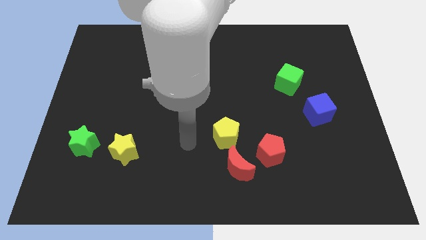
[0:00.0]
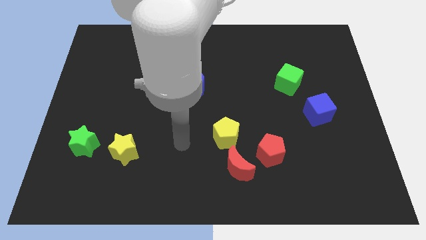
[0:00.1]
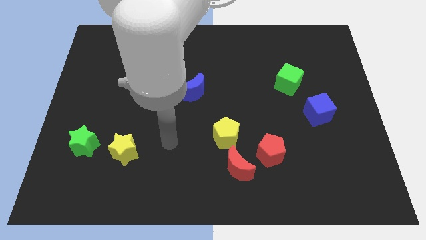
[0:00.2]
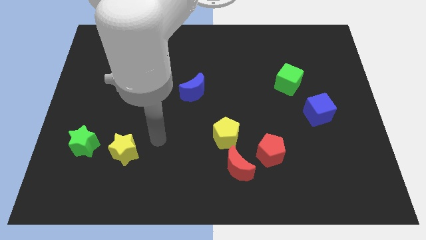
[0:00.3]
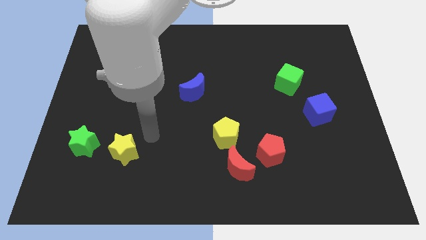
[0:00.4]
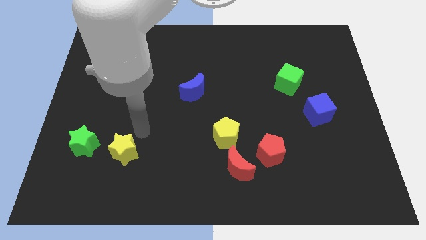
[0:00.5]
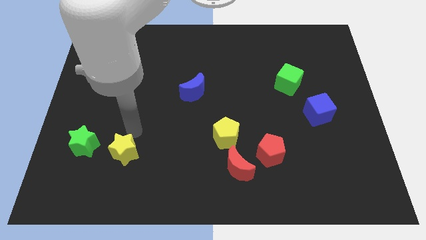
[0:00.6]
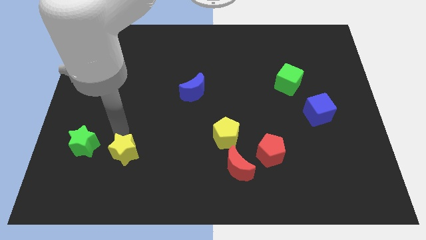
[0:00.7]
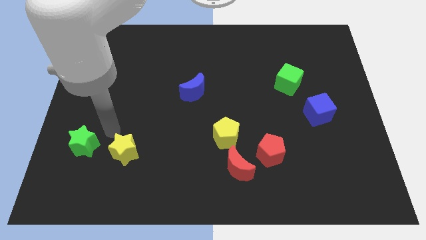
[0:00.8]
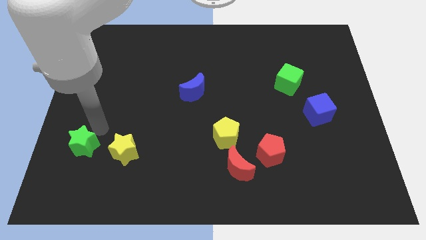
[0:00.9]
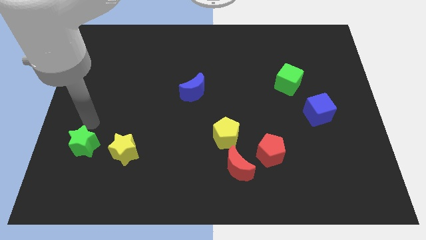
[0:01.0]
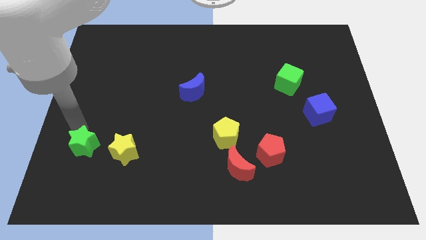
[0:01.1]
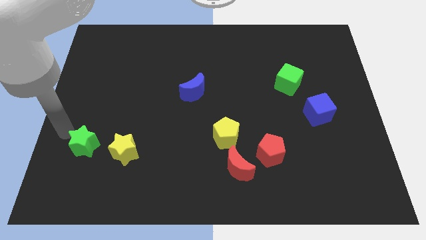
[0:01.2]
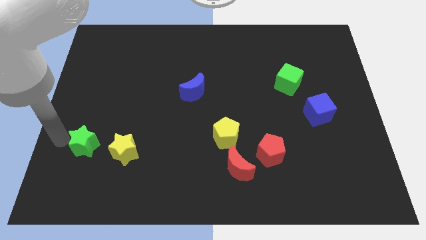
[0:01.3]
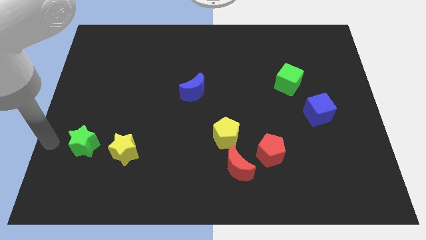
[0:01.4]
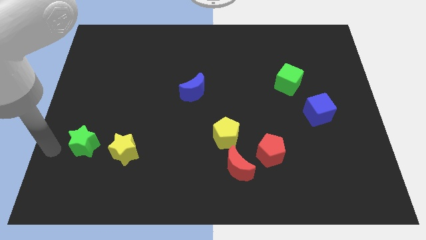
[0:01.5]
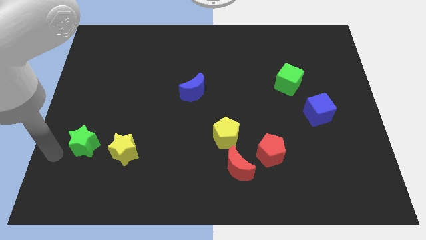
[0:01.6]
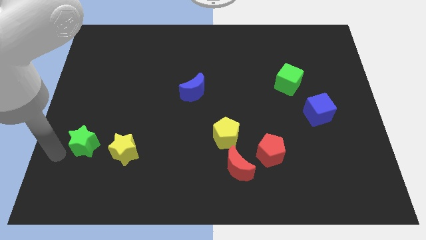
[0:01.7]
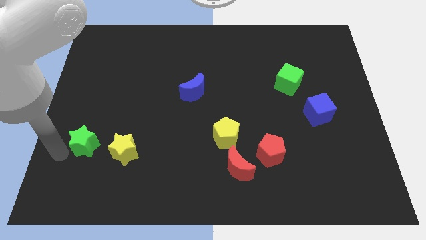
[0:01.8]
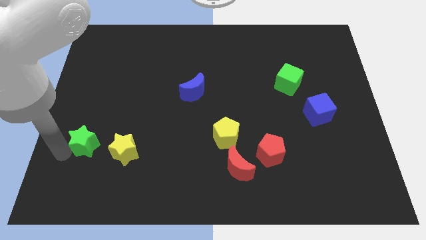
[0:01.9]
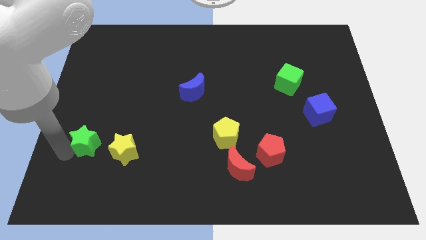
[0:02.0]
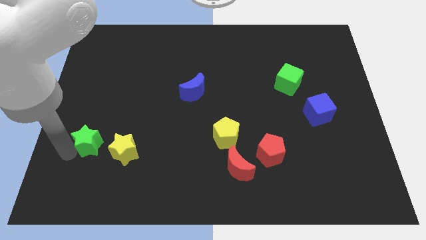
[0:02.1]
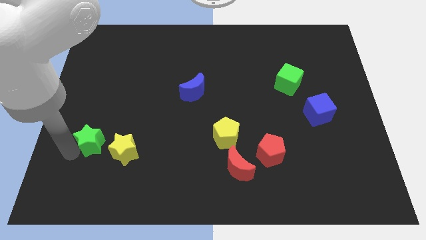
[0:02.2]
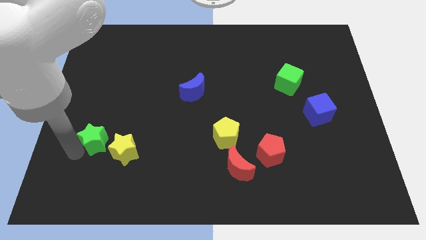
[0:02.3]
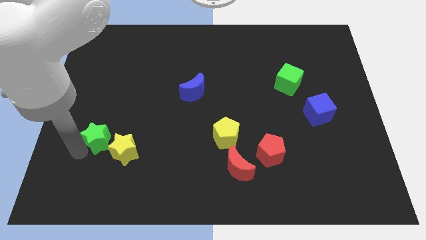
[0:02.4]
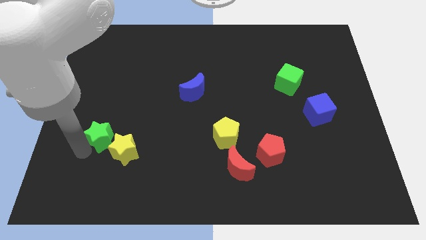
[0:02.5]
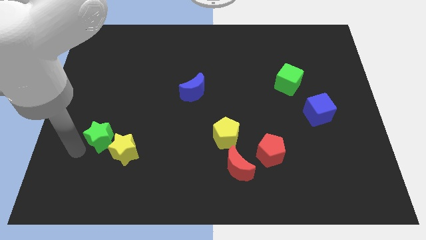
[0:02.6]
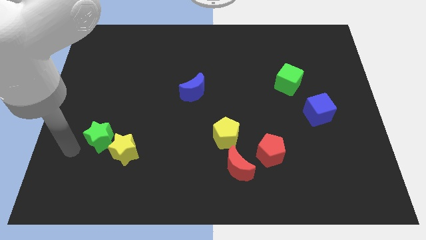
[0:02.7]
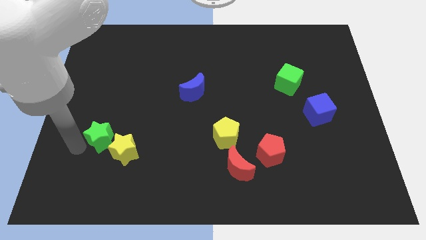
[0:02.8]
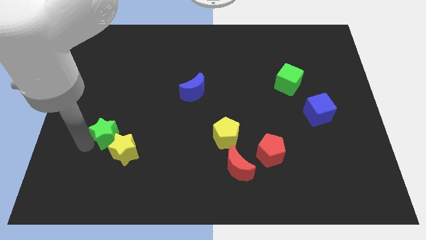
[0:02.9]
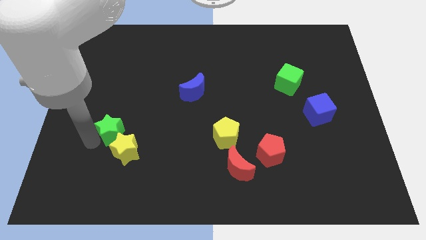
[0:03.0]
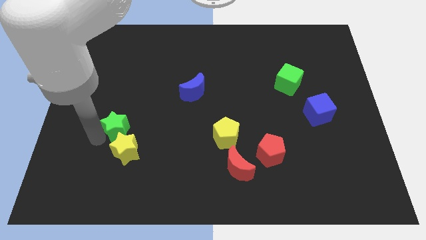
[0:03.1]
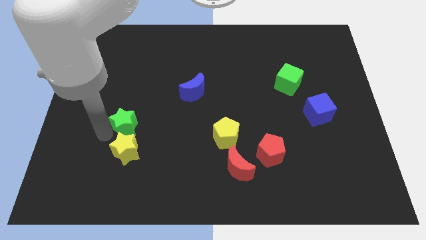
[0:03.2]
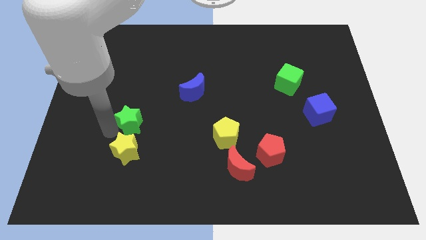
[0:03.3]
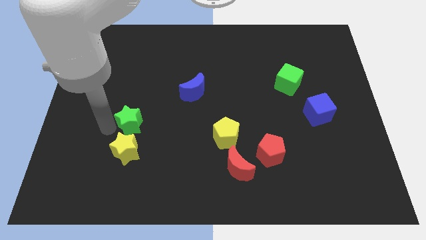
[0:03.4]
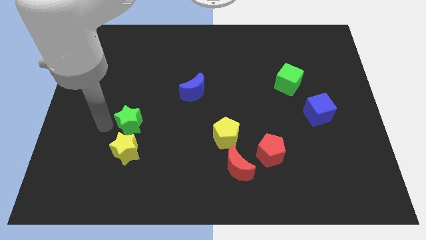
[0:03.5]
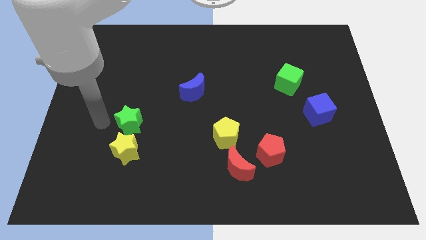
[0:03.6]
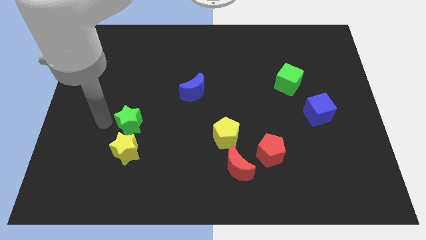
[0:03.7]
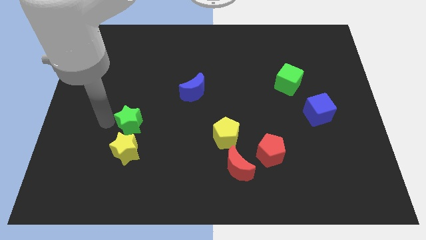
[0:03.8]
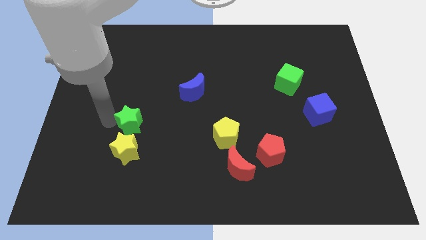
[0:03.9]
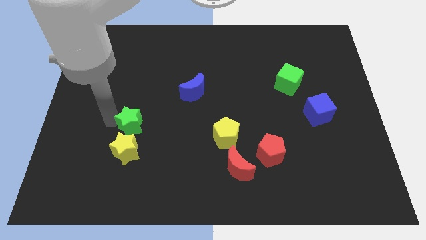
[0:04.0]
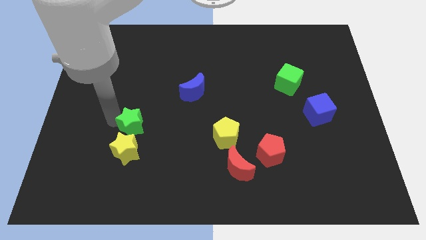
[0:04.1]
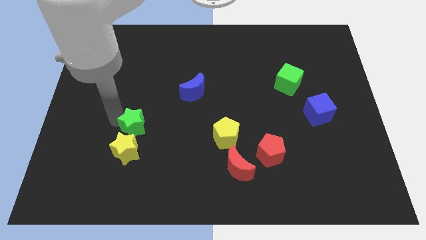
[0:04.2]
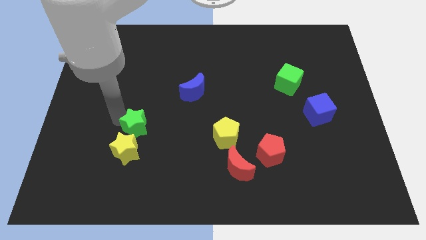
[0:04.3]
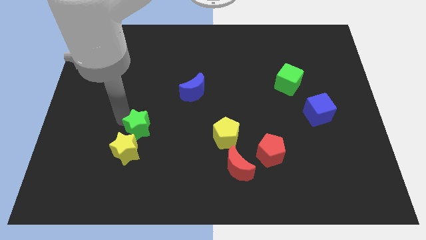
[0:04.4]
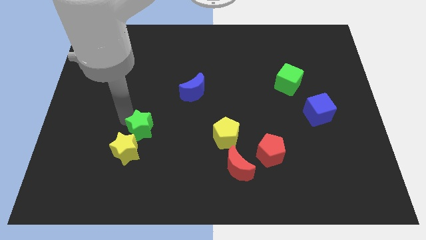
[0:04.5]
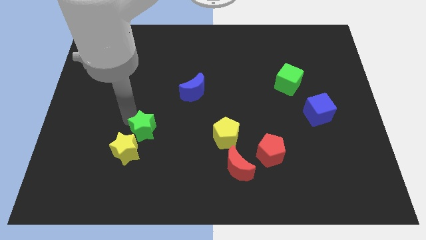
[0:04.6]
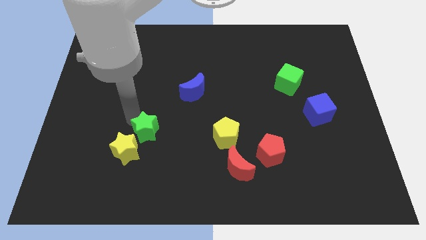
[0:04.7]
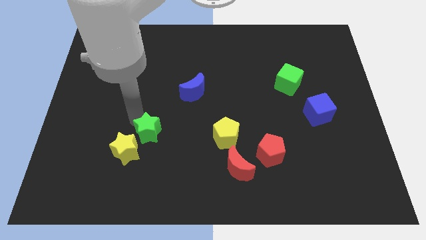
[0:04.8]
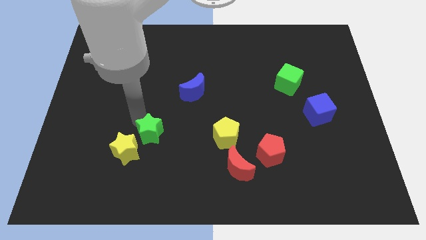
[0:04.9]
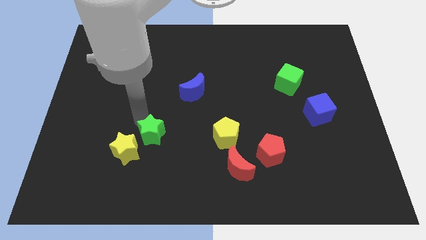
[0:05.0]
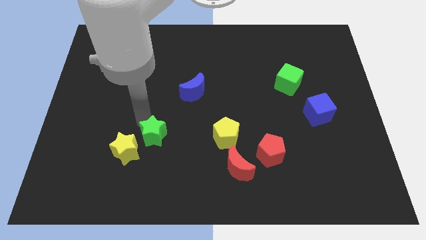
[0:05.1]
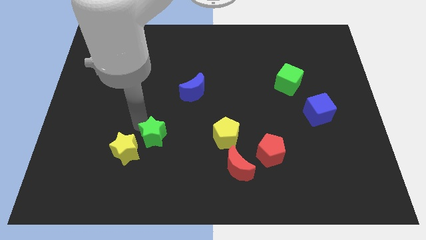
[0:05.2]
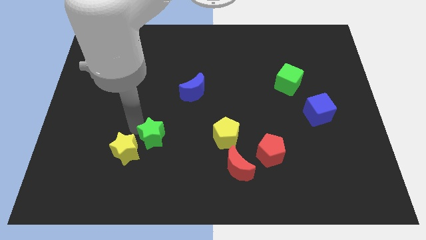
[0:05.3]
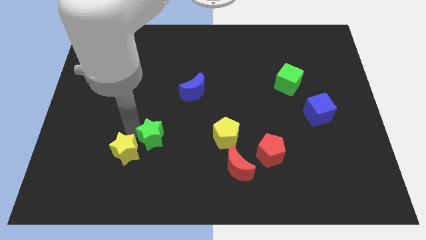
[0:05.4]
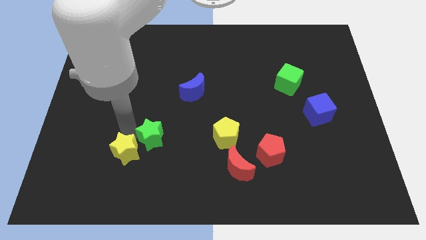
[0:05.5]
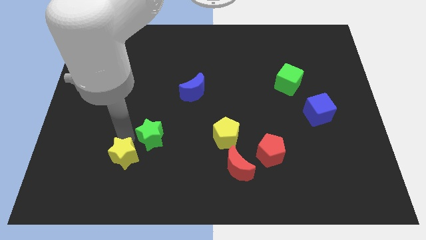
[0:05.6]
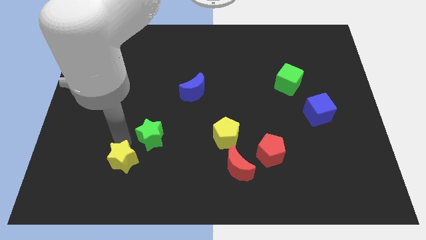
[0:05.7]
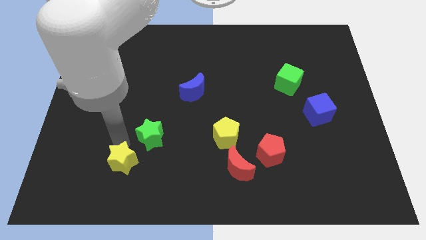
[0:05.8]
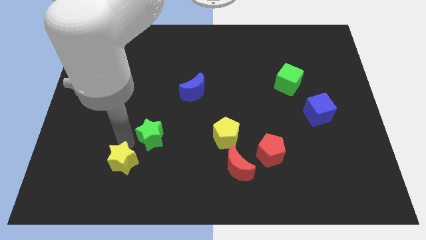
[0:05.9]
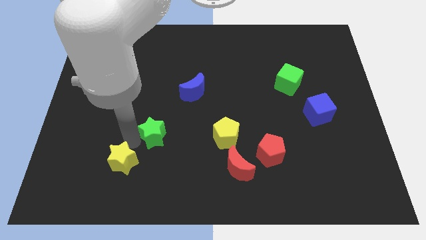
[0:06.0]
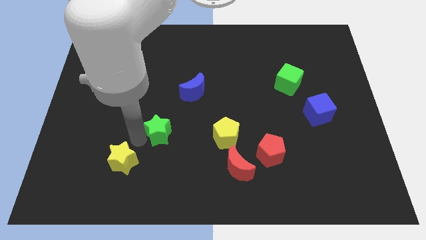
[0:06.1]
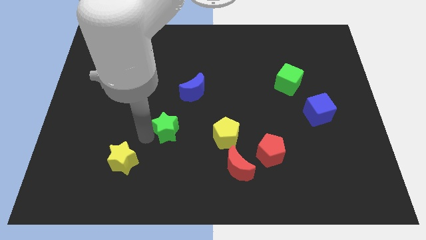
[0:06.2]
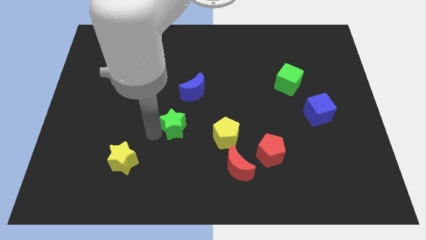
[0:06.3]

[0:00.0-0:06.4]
push the green star to the bottom of the blue moon

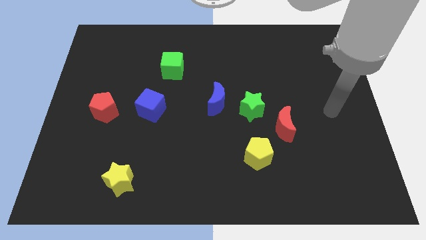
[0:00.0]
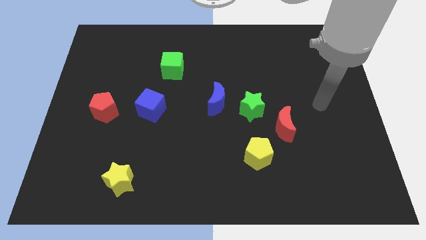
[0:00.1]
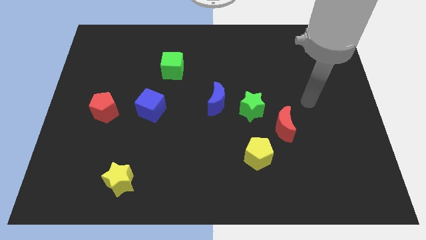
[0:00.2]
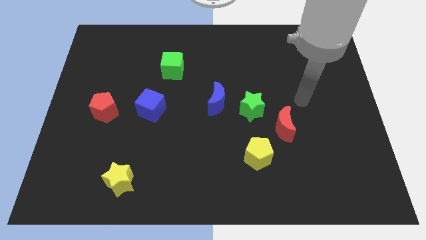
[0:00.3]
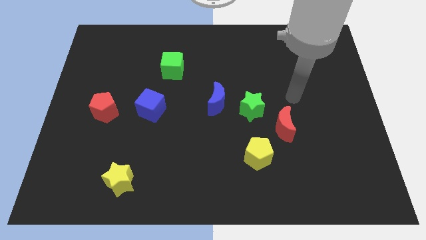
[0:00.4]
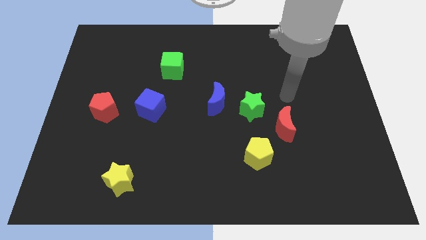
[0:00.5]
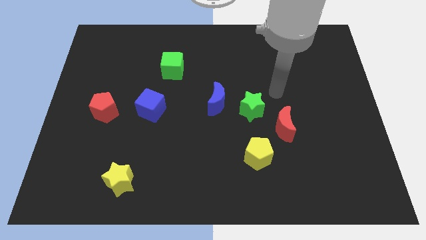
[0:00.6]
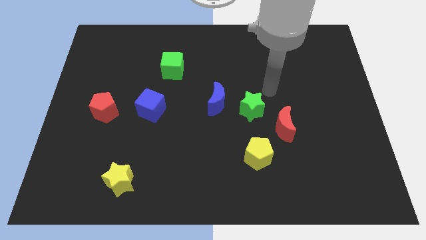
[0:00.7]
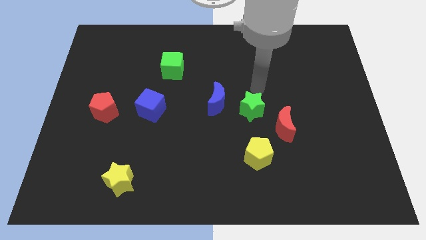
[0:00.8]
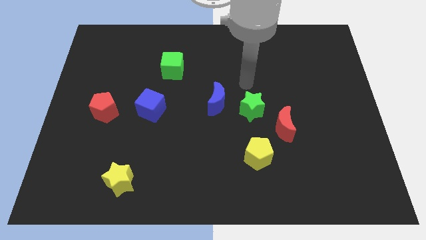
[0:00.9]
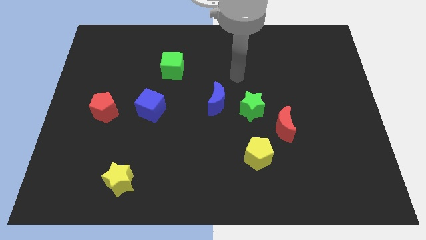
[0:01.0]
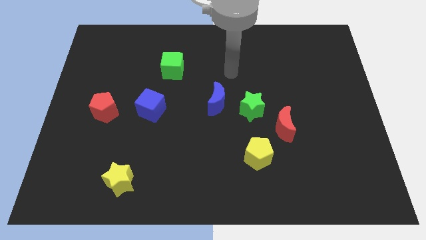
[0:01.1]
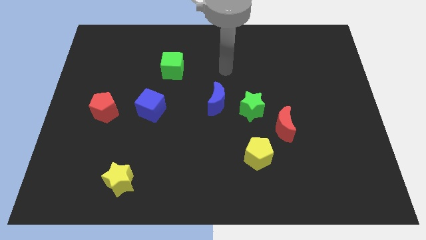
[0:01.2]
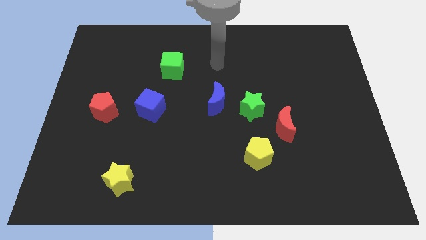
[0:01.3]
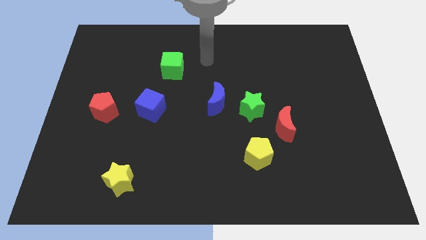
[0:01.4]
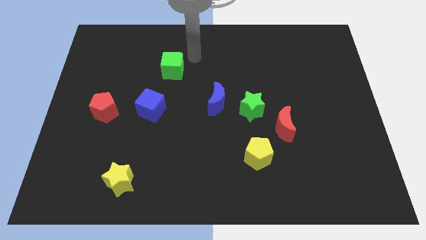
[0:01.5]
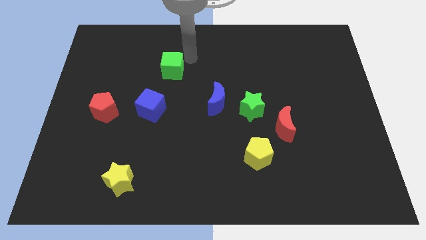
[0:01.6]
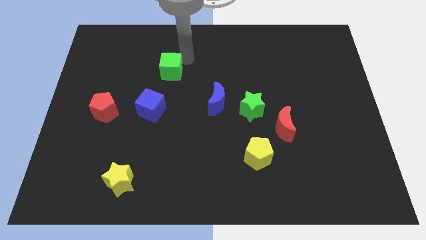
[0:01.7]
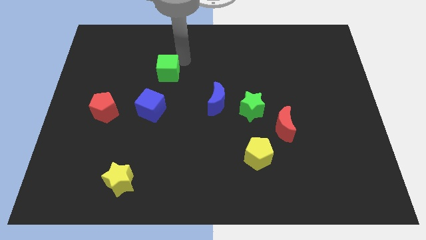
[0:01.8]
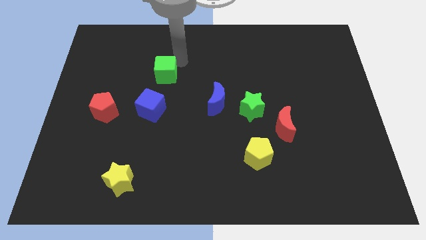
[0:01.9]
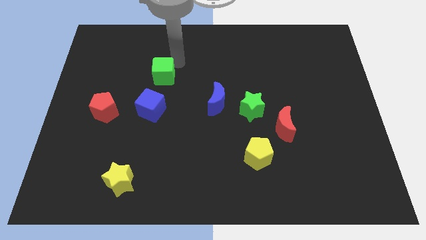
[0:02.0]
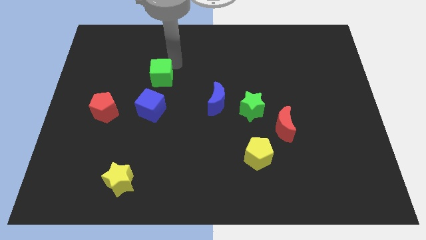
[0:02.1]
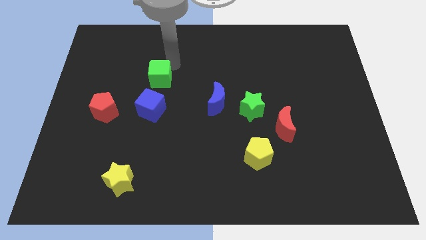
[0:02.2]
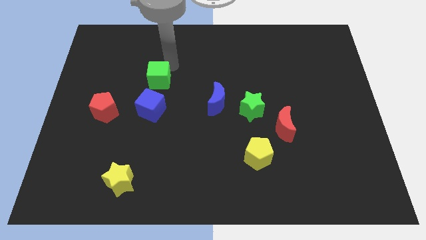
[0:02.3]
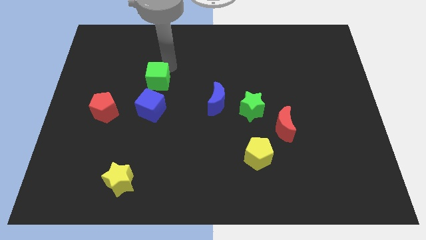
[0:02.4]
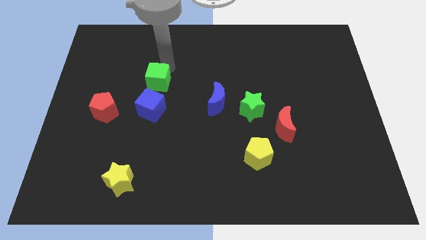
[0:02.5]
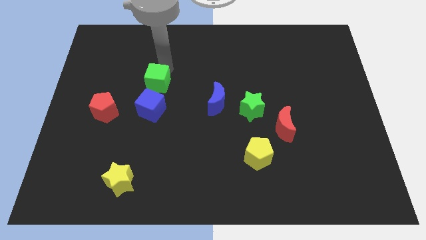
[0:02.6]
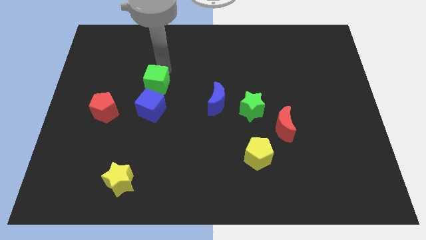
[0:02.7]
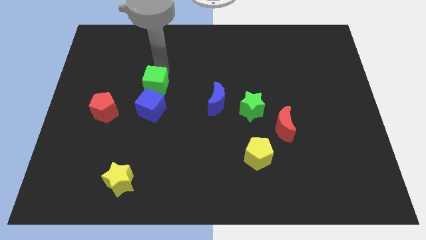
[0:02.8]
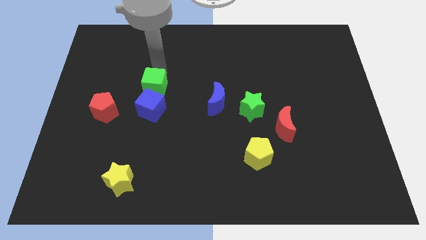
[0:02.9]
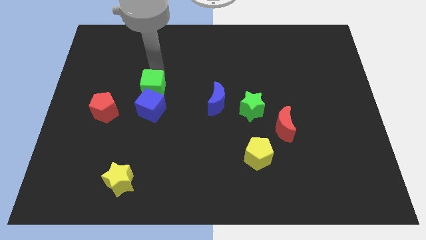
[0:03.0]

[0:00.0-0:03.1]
slide the green cube to the top right side of the red pentagon
